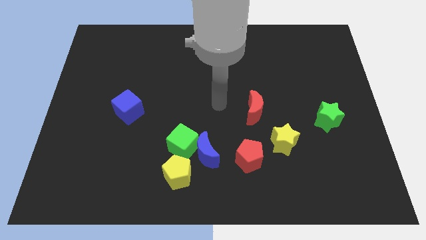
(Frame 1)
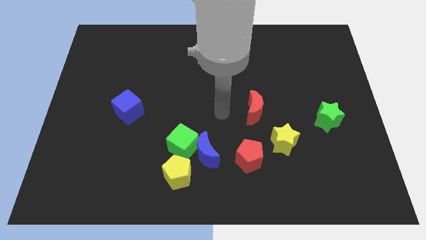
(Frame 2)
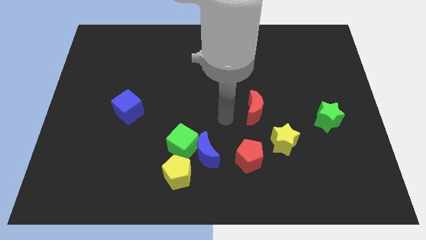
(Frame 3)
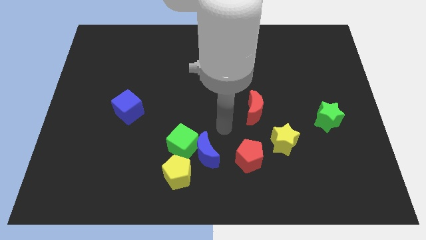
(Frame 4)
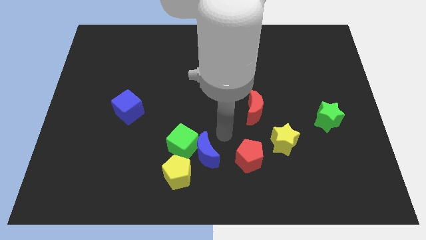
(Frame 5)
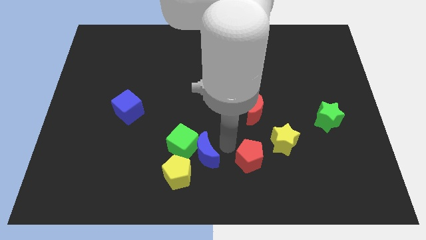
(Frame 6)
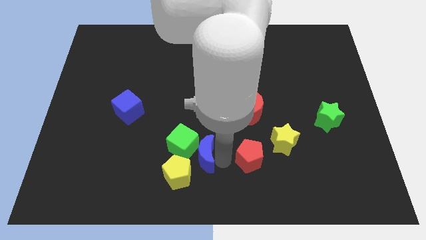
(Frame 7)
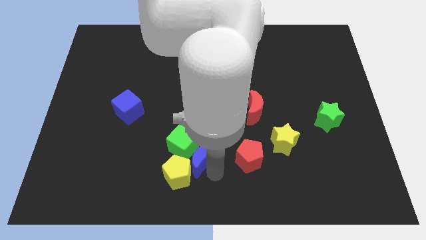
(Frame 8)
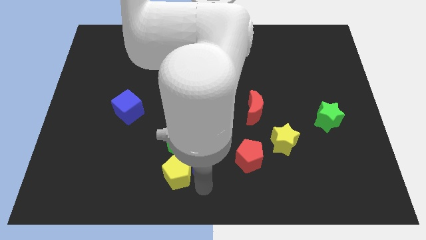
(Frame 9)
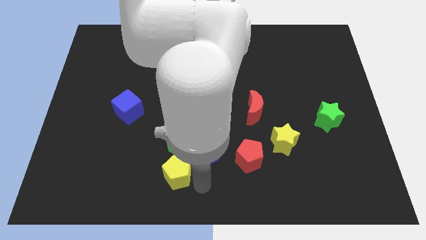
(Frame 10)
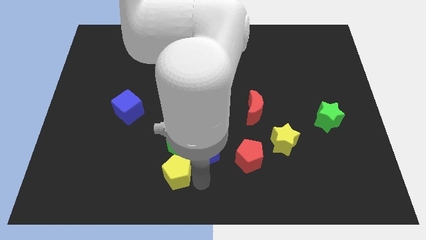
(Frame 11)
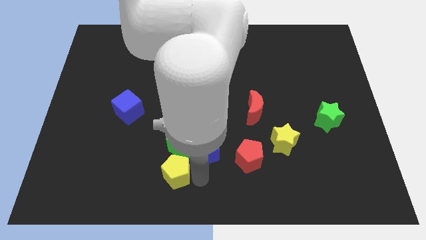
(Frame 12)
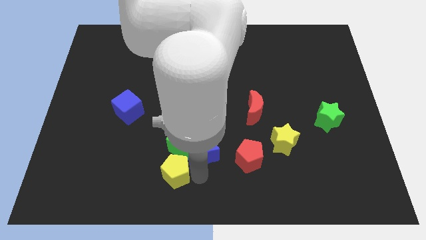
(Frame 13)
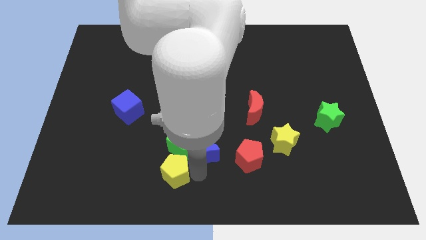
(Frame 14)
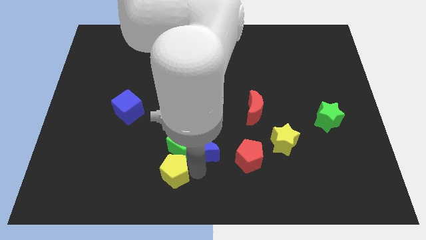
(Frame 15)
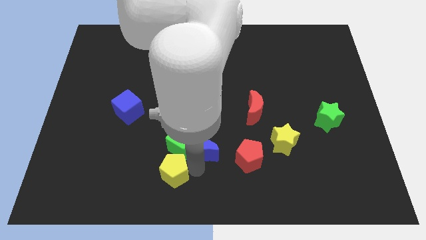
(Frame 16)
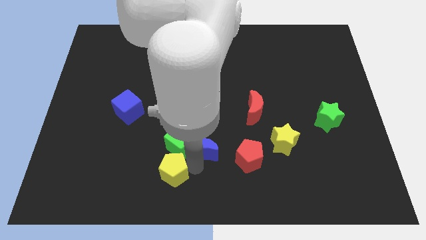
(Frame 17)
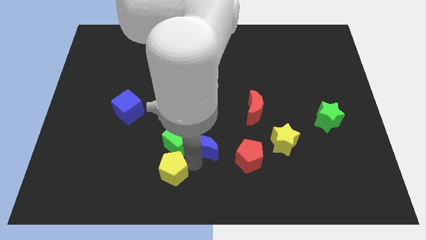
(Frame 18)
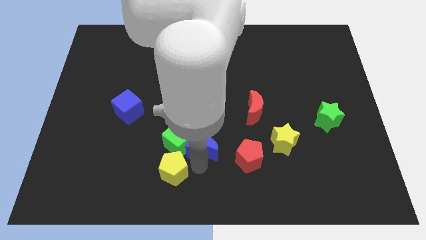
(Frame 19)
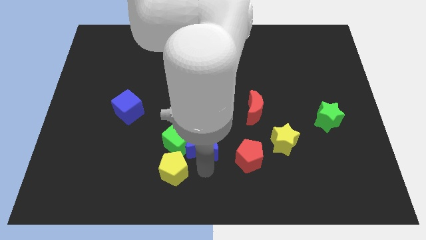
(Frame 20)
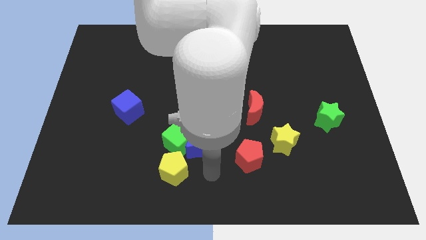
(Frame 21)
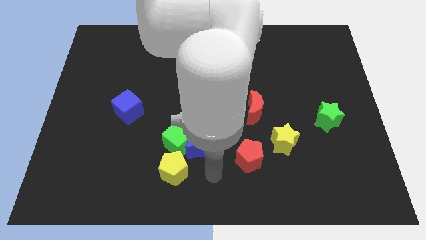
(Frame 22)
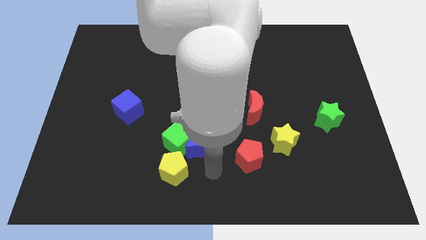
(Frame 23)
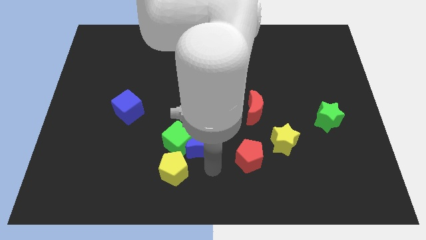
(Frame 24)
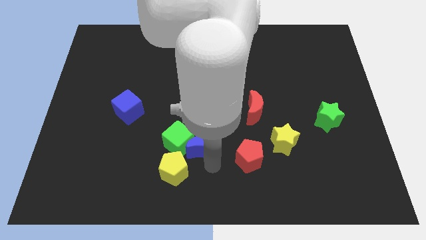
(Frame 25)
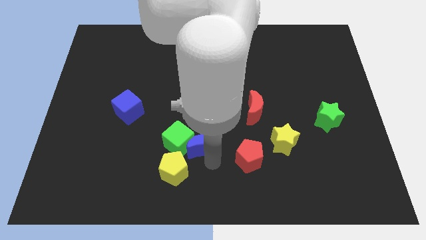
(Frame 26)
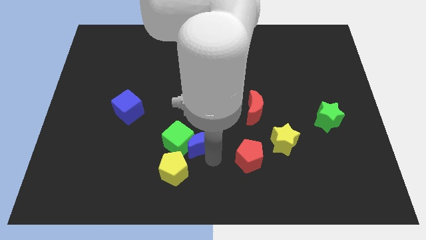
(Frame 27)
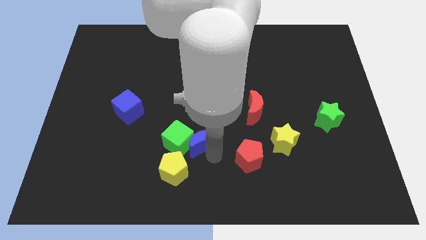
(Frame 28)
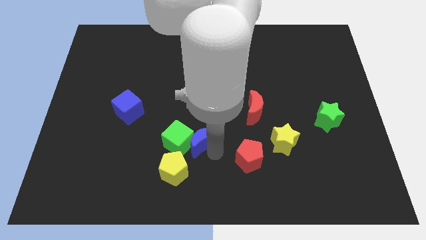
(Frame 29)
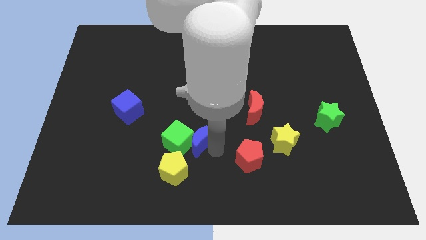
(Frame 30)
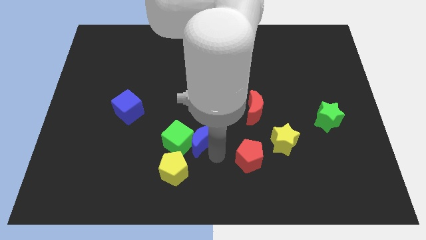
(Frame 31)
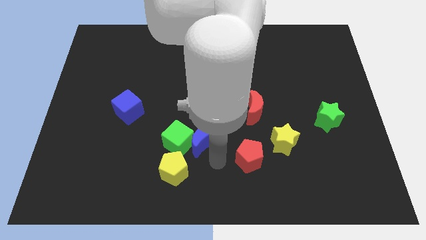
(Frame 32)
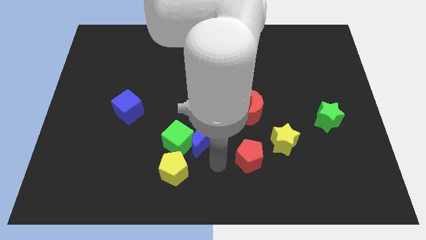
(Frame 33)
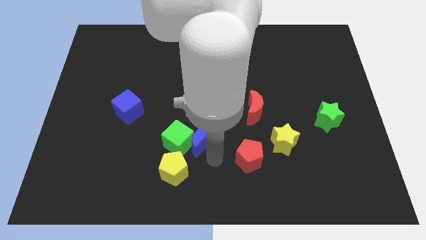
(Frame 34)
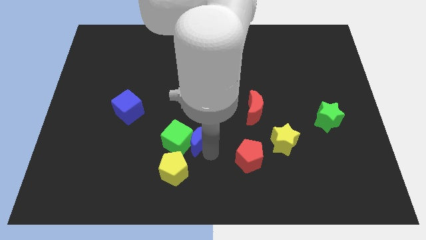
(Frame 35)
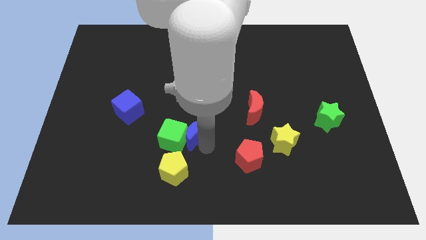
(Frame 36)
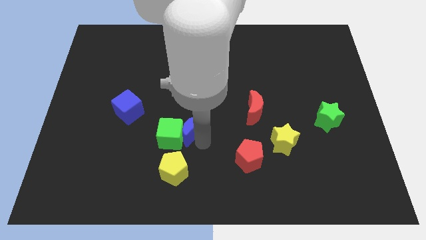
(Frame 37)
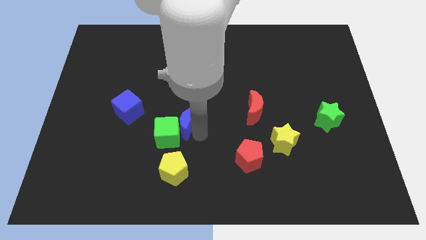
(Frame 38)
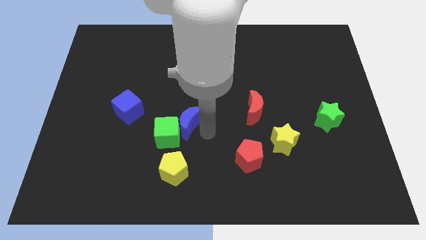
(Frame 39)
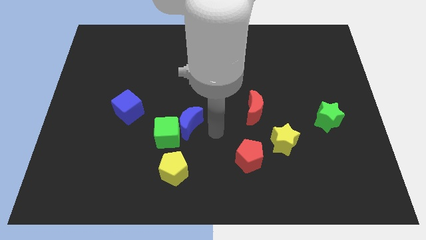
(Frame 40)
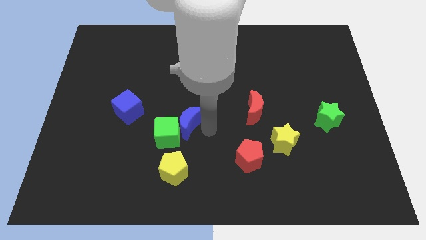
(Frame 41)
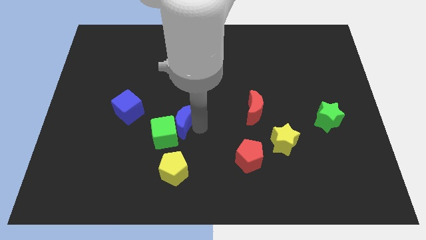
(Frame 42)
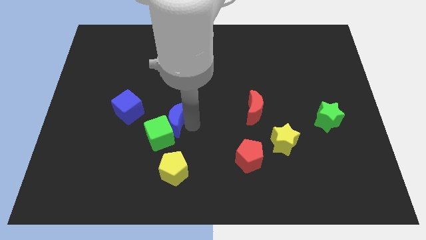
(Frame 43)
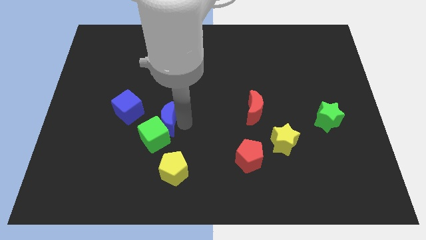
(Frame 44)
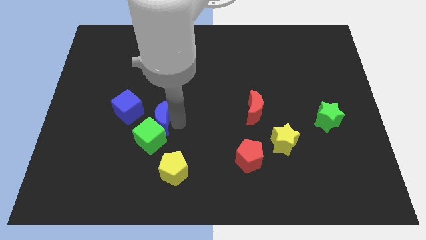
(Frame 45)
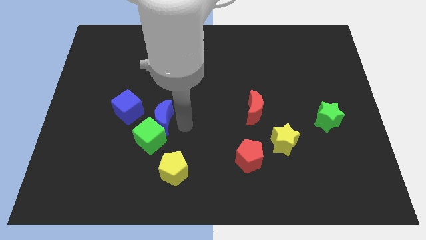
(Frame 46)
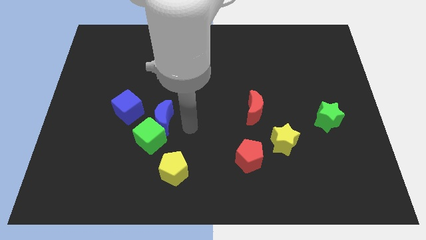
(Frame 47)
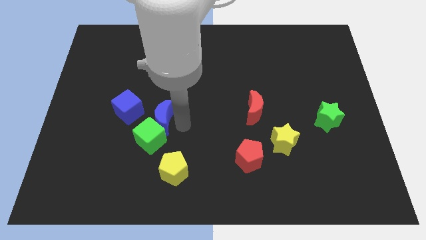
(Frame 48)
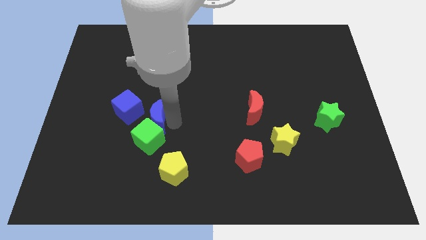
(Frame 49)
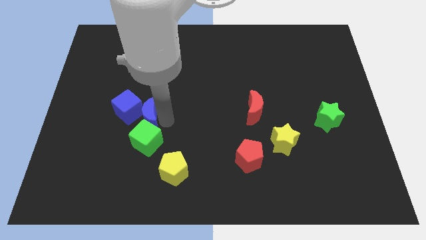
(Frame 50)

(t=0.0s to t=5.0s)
move the blue moon to the blue cube

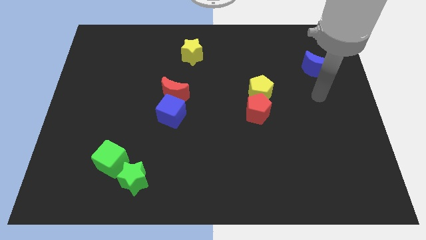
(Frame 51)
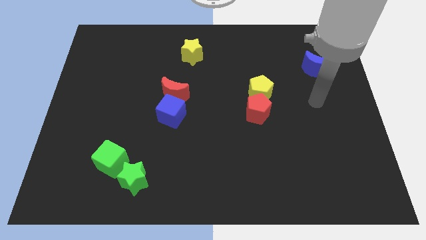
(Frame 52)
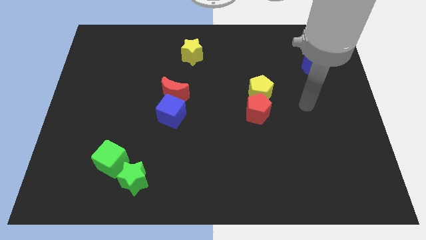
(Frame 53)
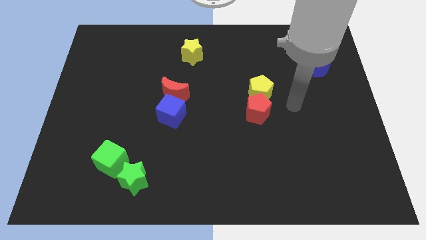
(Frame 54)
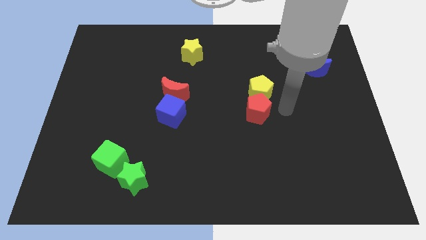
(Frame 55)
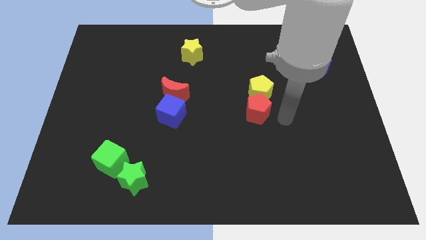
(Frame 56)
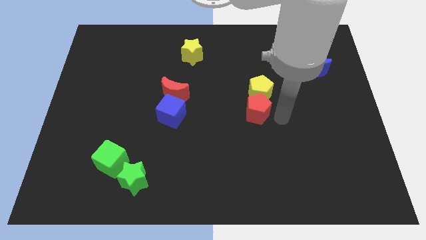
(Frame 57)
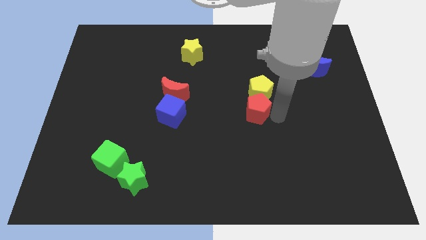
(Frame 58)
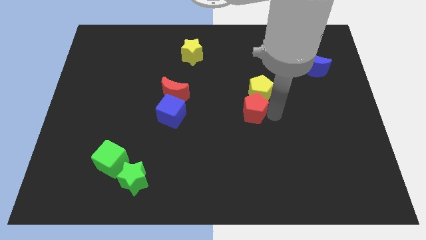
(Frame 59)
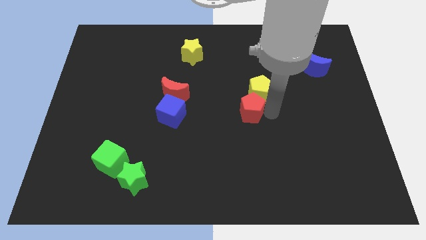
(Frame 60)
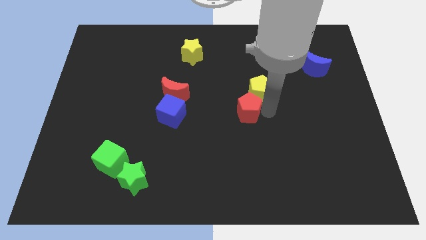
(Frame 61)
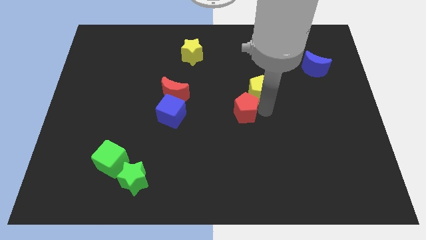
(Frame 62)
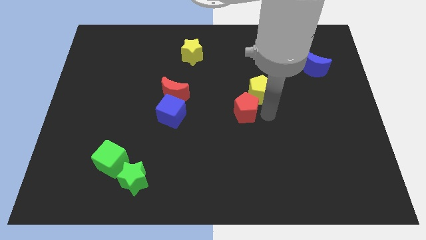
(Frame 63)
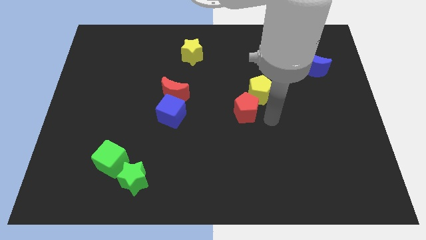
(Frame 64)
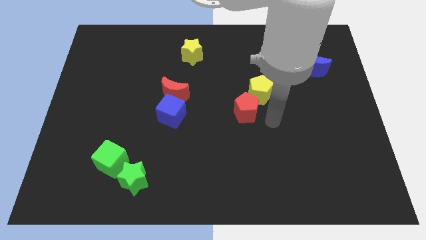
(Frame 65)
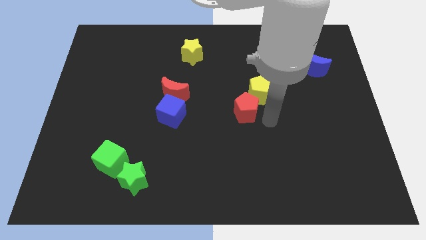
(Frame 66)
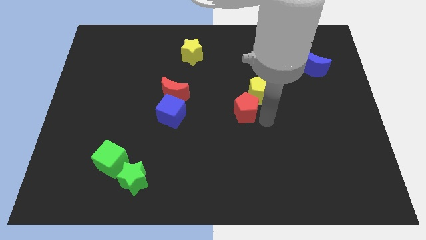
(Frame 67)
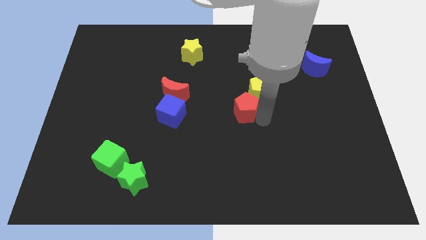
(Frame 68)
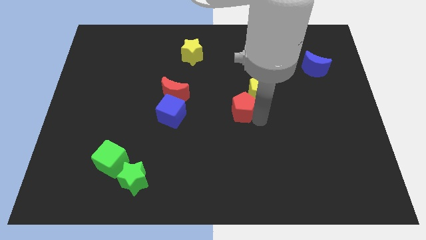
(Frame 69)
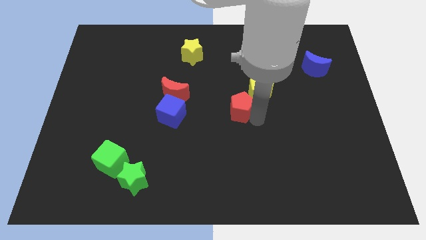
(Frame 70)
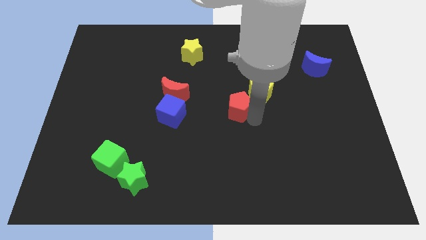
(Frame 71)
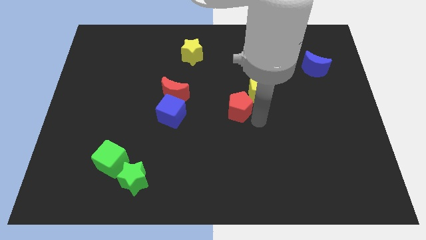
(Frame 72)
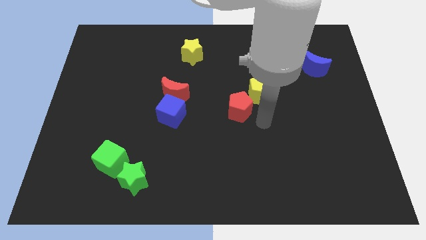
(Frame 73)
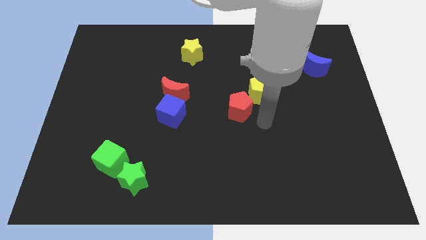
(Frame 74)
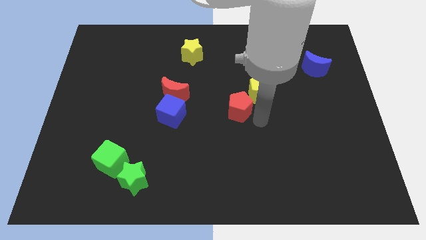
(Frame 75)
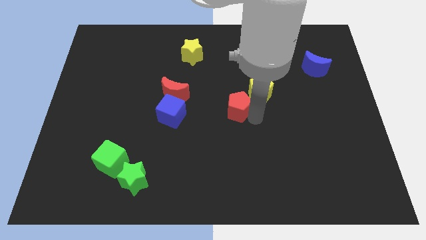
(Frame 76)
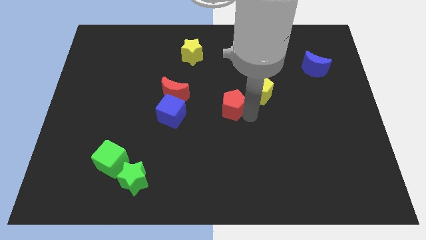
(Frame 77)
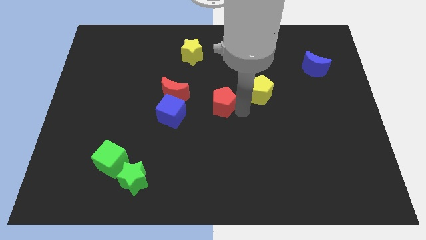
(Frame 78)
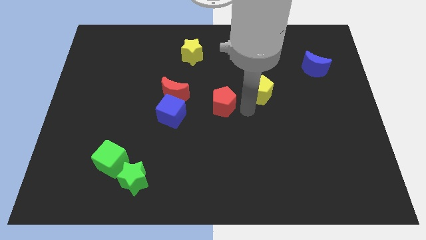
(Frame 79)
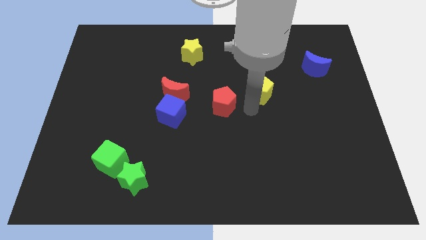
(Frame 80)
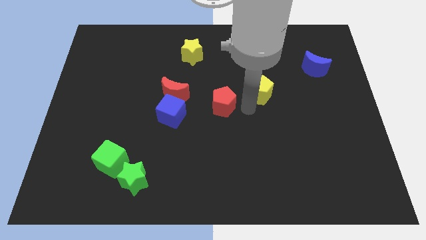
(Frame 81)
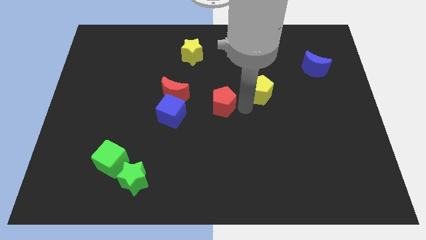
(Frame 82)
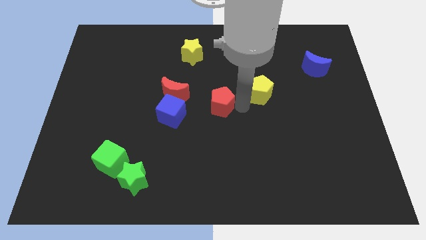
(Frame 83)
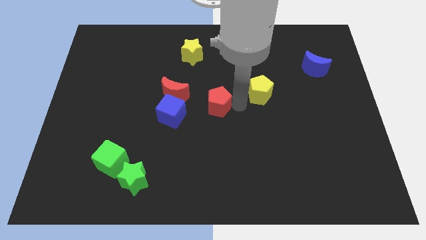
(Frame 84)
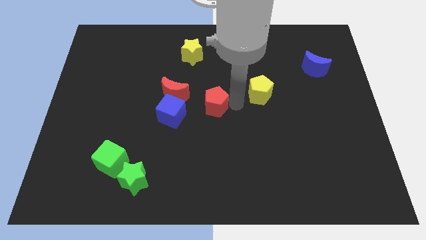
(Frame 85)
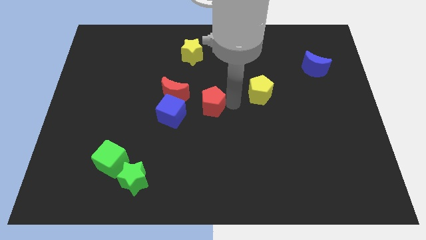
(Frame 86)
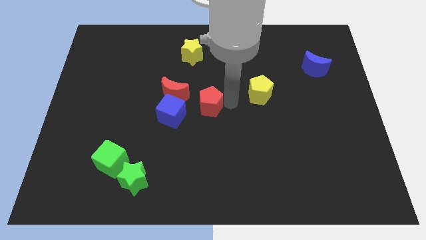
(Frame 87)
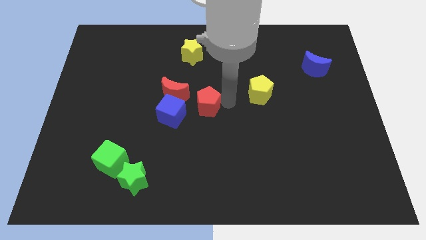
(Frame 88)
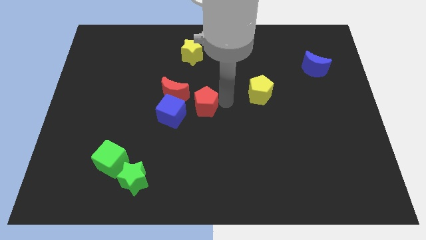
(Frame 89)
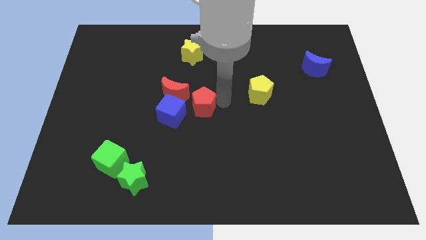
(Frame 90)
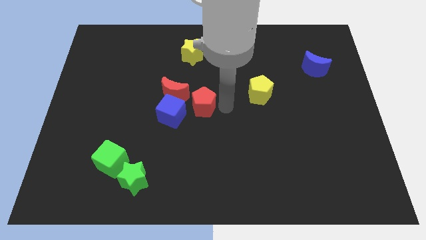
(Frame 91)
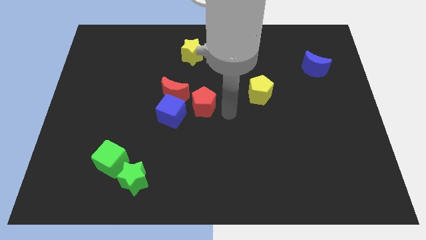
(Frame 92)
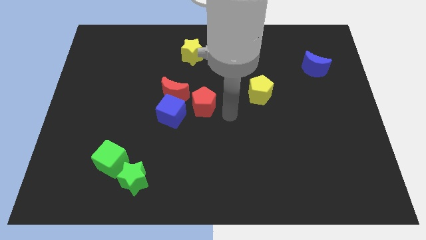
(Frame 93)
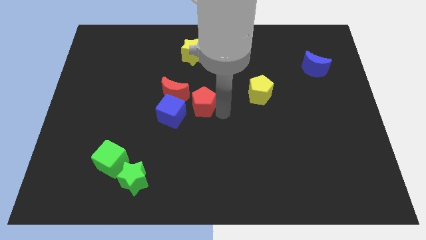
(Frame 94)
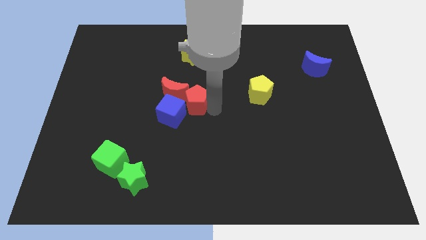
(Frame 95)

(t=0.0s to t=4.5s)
move the red pentagon to the red moon
